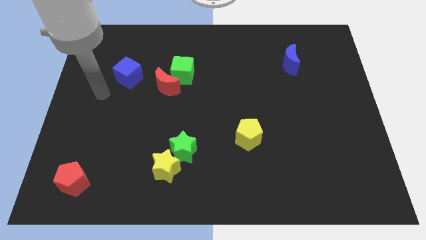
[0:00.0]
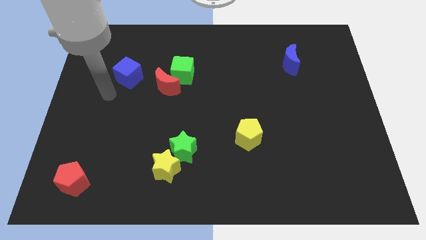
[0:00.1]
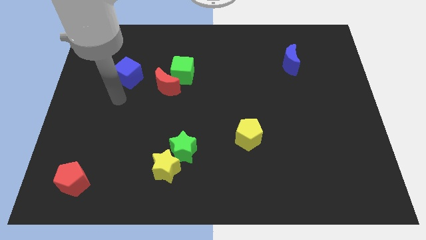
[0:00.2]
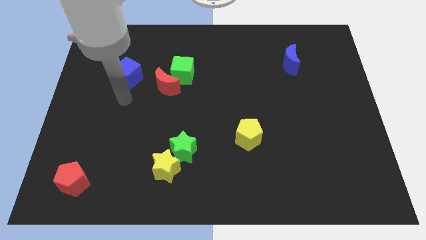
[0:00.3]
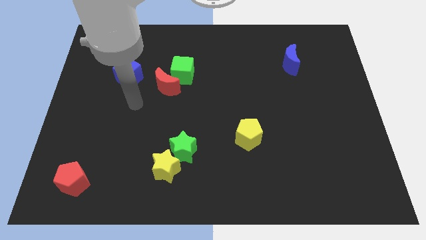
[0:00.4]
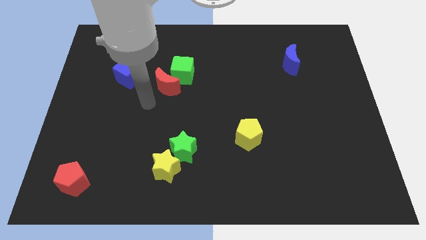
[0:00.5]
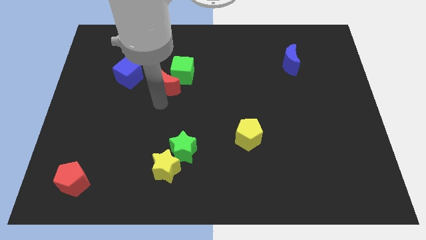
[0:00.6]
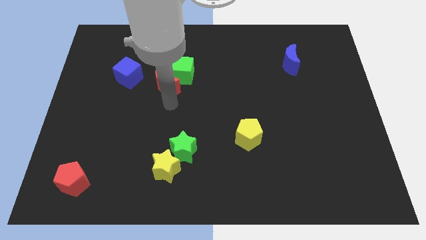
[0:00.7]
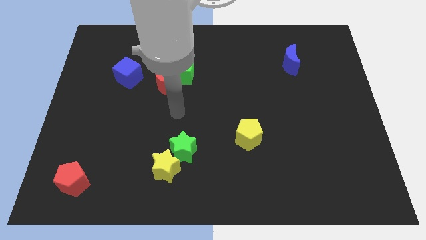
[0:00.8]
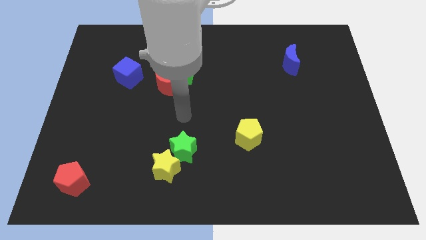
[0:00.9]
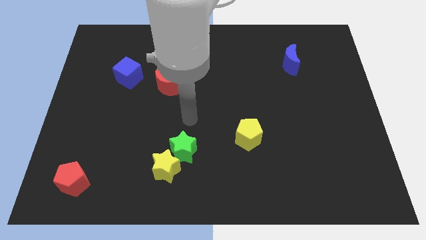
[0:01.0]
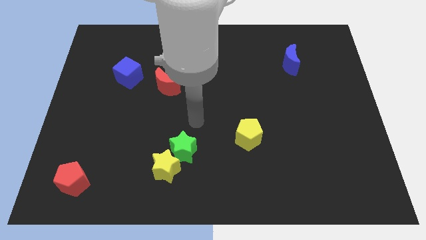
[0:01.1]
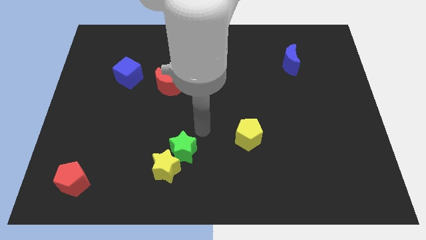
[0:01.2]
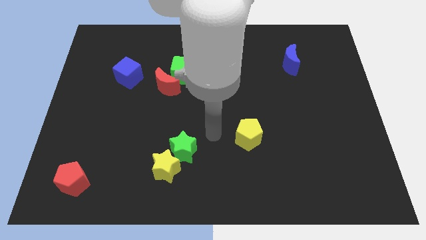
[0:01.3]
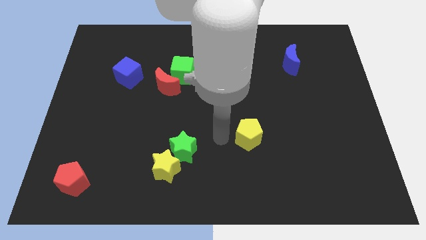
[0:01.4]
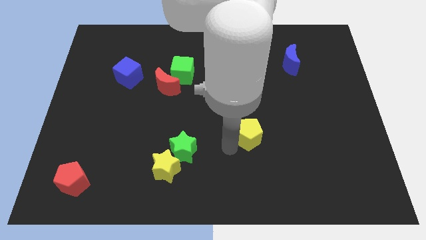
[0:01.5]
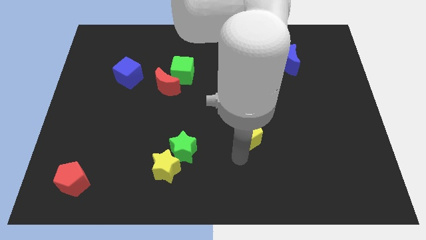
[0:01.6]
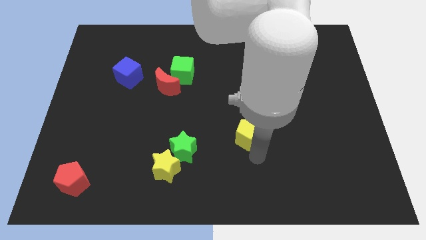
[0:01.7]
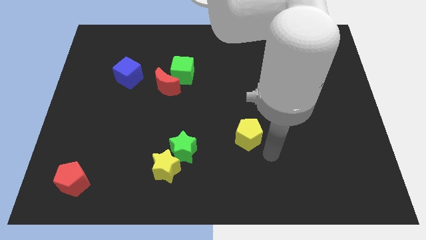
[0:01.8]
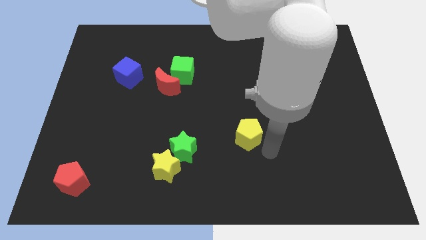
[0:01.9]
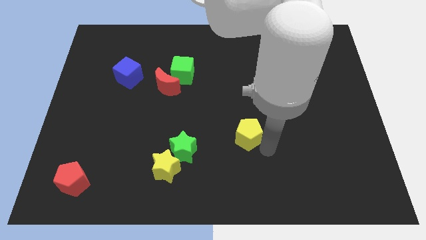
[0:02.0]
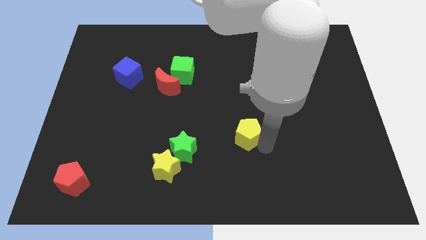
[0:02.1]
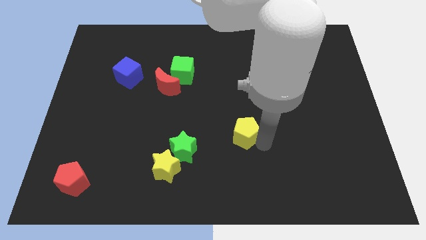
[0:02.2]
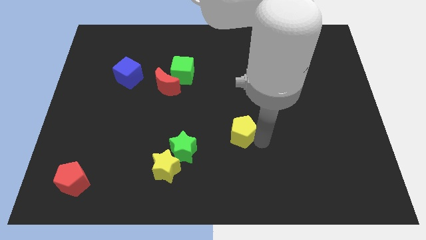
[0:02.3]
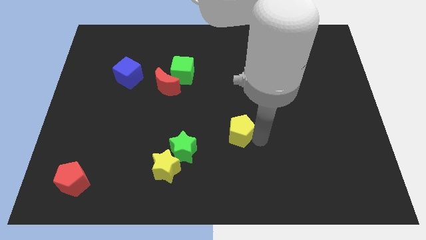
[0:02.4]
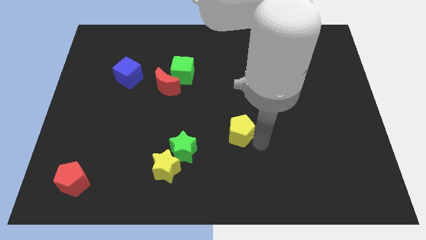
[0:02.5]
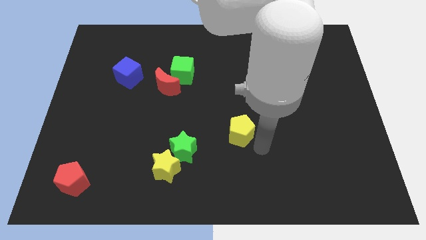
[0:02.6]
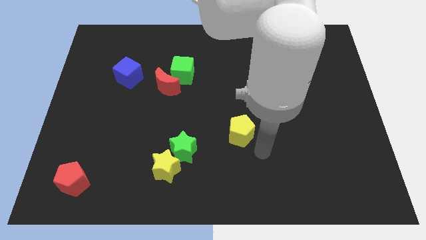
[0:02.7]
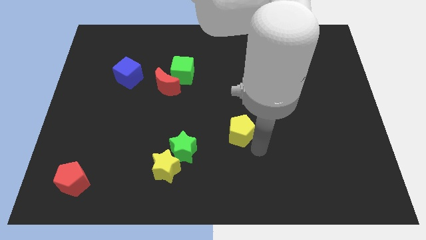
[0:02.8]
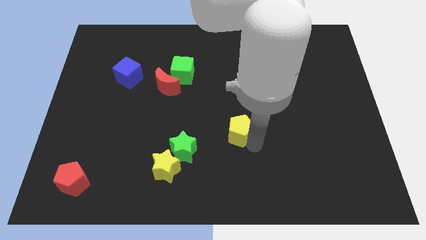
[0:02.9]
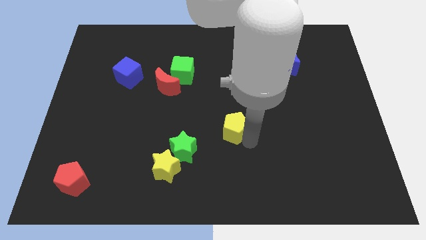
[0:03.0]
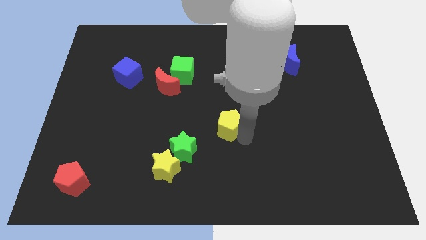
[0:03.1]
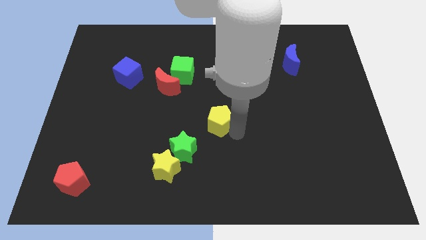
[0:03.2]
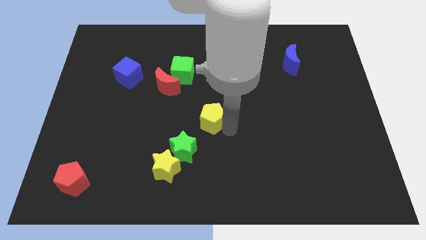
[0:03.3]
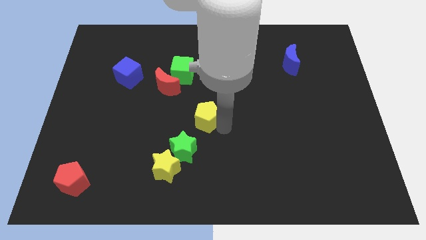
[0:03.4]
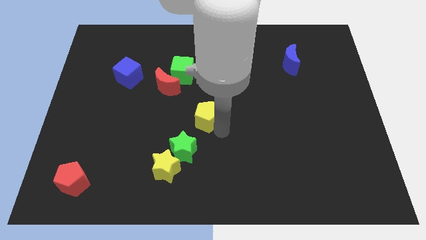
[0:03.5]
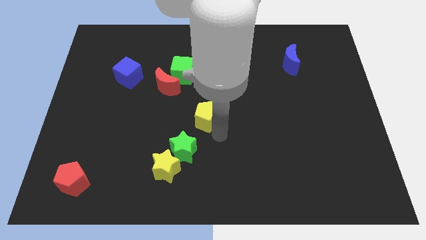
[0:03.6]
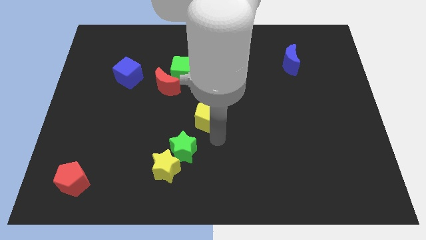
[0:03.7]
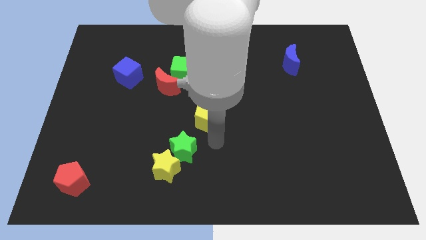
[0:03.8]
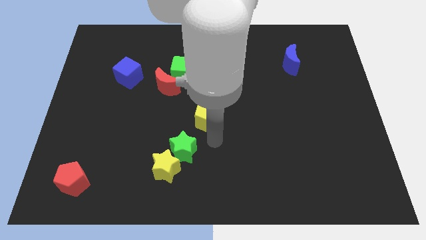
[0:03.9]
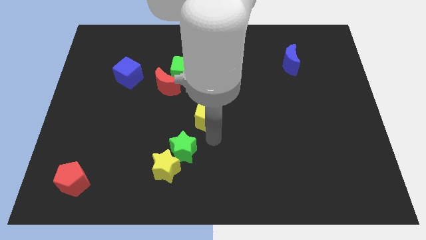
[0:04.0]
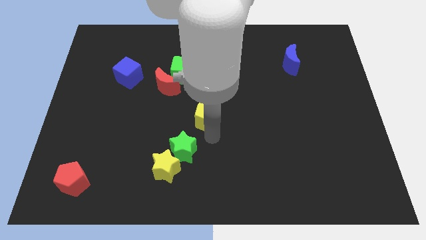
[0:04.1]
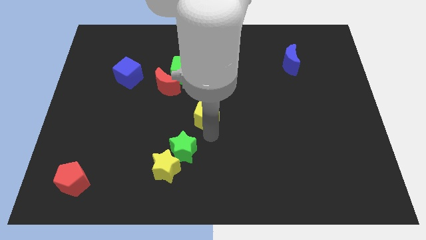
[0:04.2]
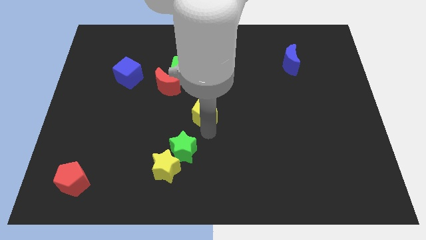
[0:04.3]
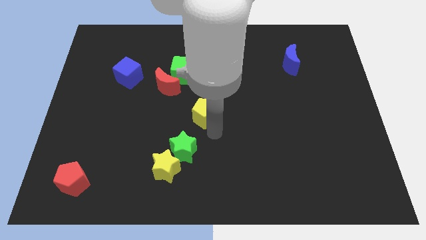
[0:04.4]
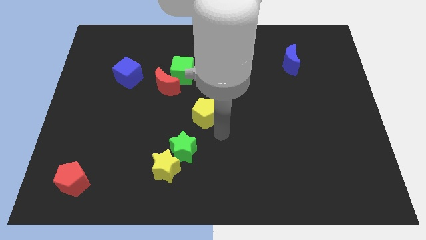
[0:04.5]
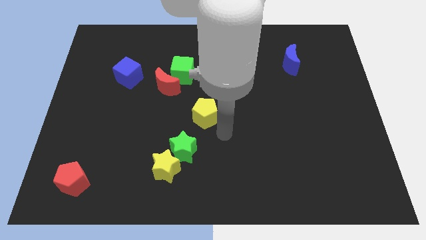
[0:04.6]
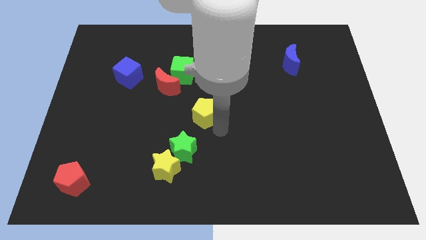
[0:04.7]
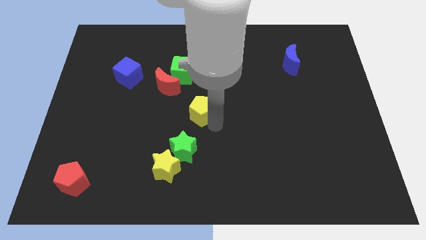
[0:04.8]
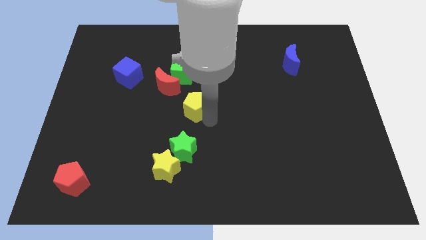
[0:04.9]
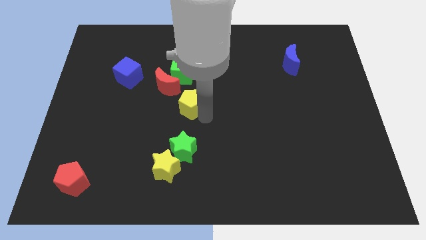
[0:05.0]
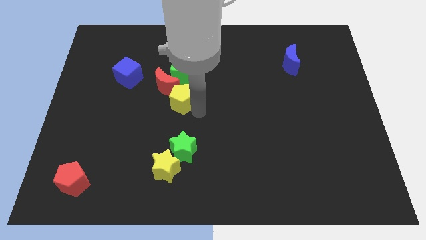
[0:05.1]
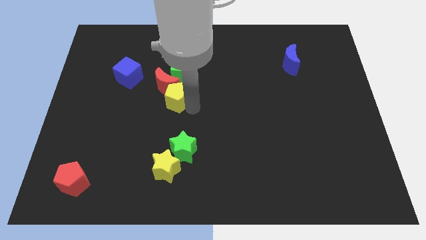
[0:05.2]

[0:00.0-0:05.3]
put the yellow pentagon to the red moon

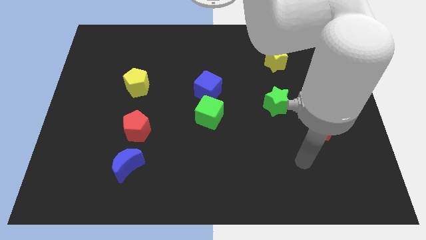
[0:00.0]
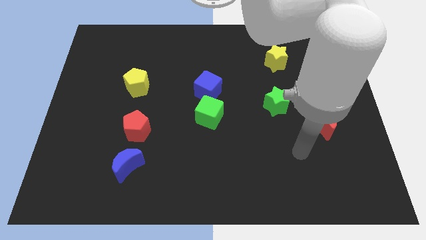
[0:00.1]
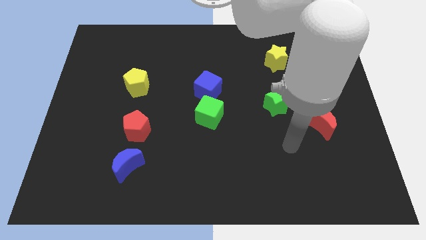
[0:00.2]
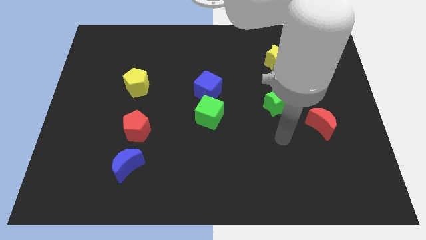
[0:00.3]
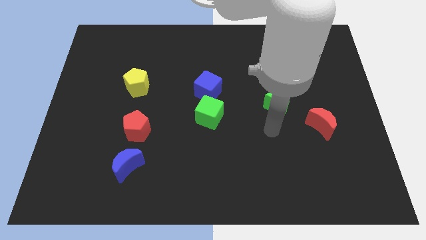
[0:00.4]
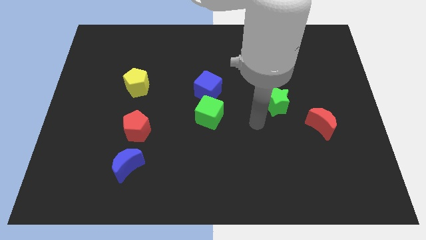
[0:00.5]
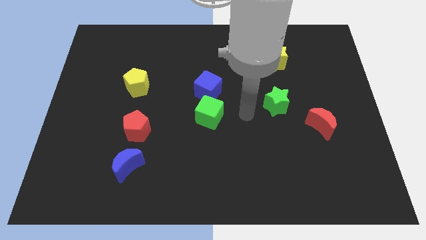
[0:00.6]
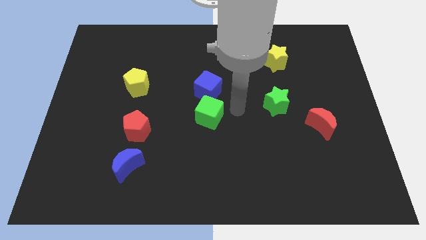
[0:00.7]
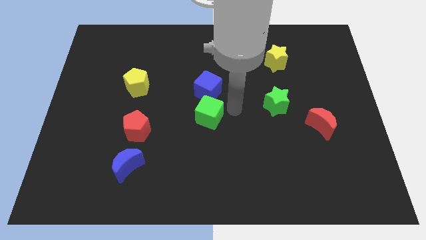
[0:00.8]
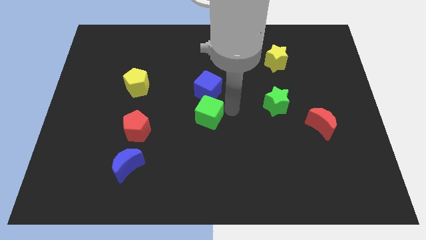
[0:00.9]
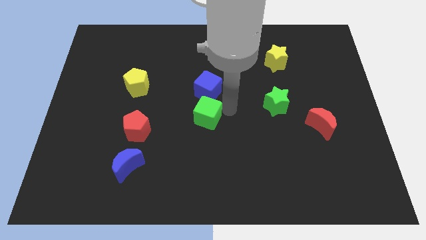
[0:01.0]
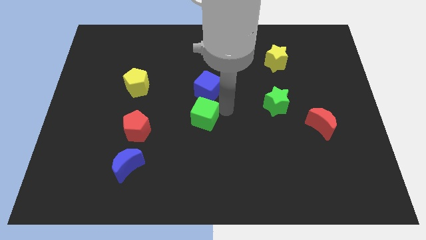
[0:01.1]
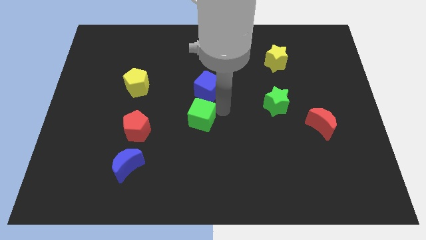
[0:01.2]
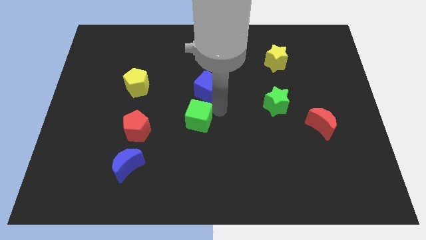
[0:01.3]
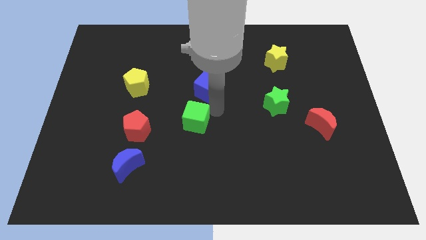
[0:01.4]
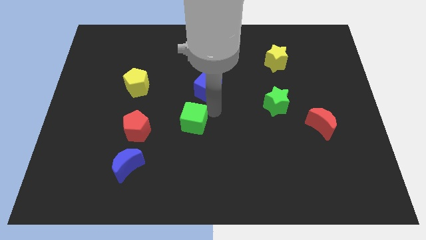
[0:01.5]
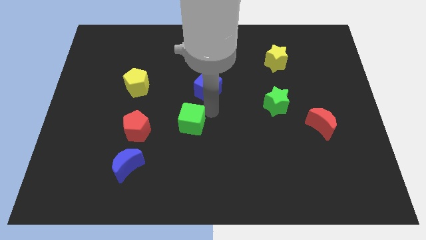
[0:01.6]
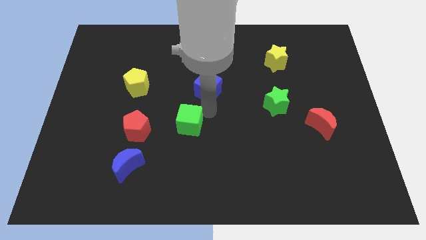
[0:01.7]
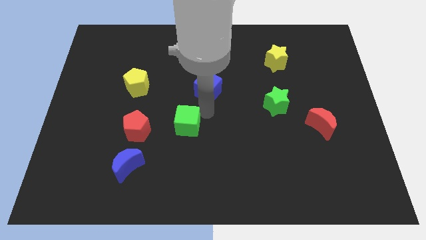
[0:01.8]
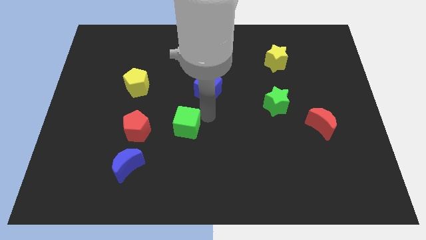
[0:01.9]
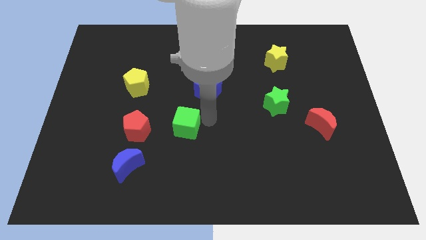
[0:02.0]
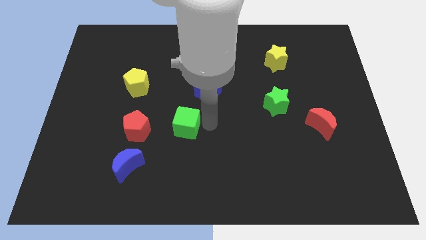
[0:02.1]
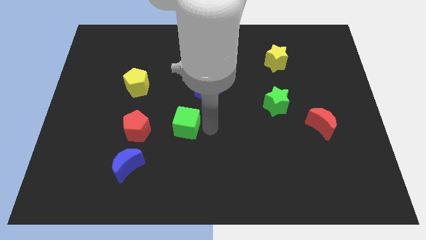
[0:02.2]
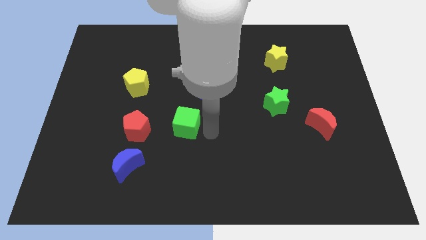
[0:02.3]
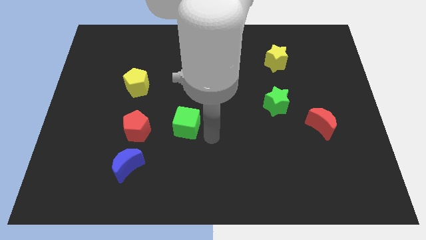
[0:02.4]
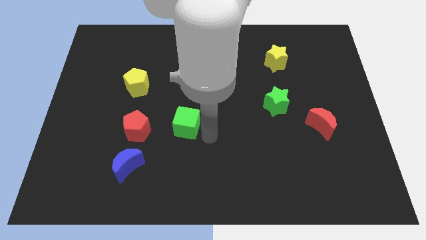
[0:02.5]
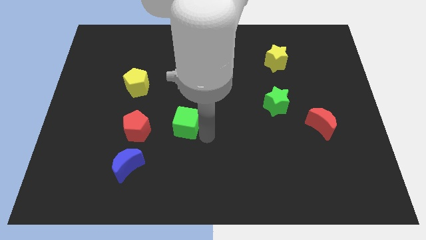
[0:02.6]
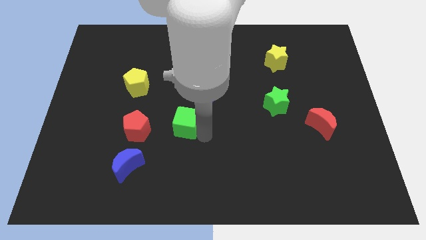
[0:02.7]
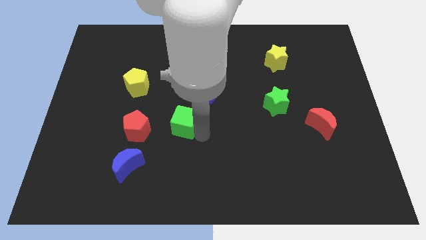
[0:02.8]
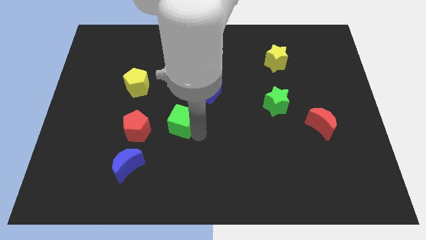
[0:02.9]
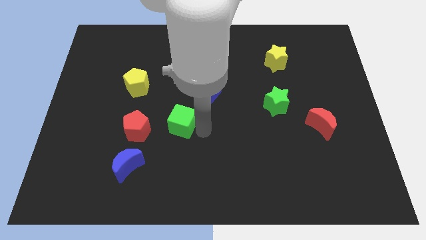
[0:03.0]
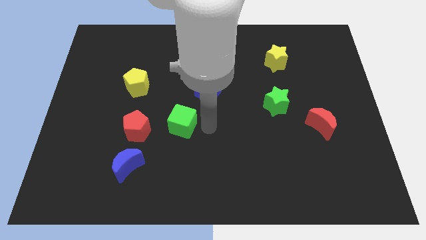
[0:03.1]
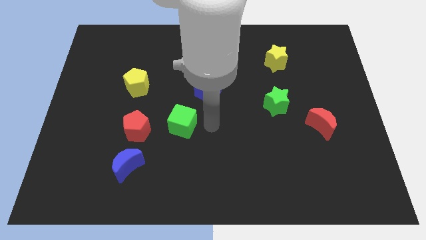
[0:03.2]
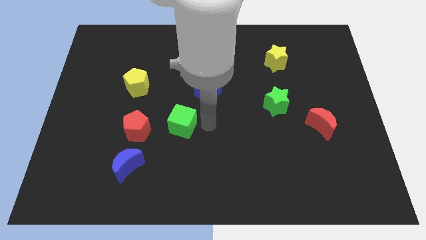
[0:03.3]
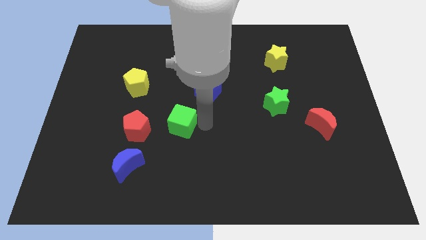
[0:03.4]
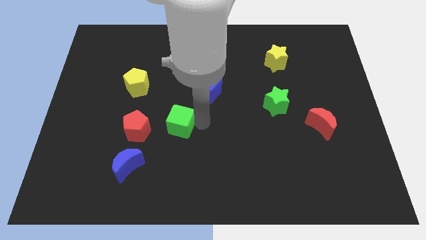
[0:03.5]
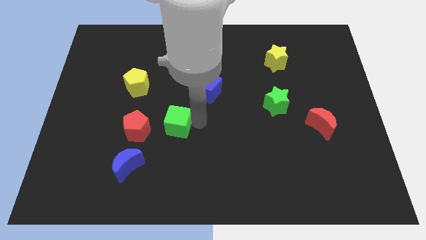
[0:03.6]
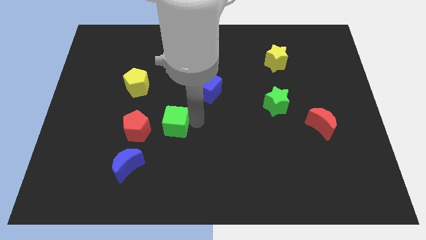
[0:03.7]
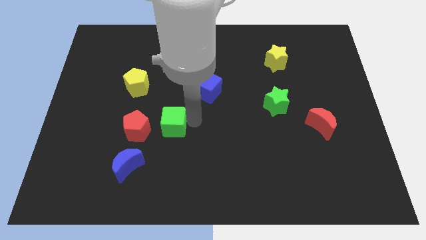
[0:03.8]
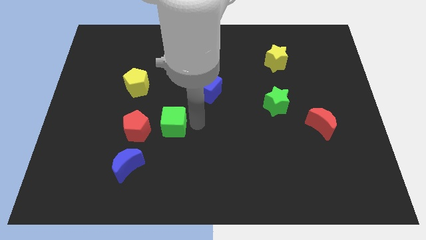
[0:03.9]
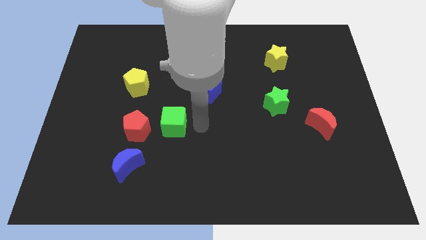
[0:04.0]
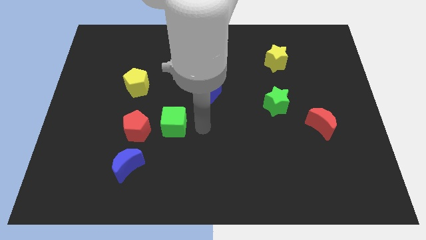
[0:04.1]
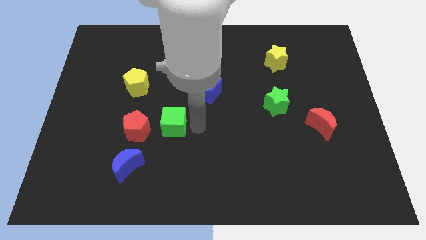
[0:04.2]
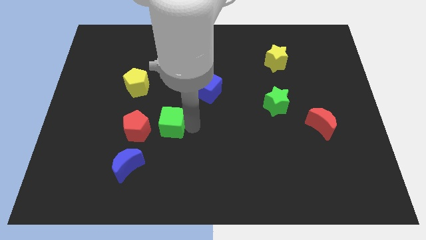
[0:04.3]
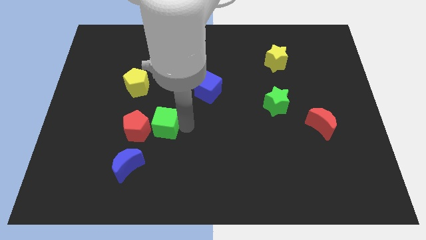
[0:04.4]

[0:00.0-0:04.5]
push the green cube close to the red pentagon
